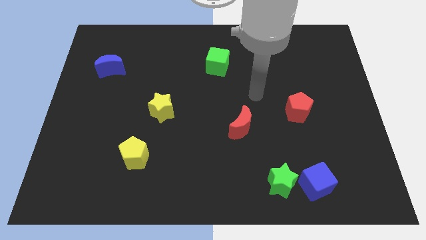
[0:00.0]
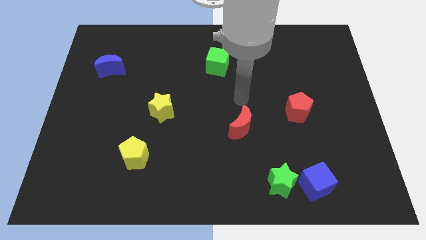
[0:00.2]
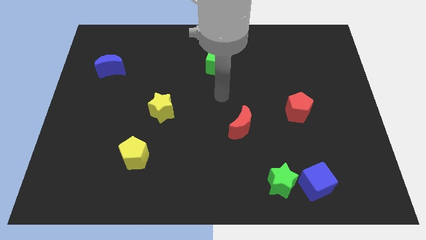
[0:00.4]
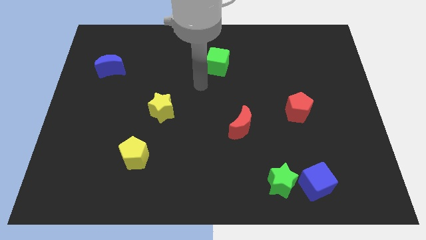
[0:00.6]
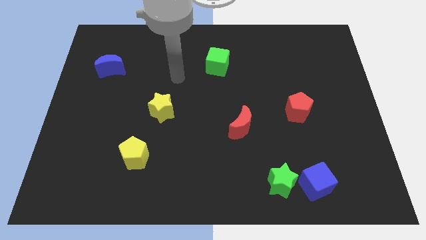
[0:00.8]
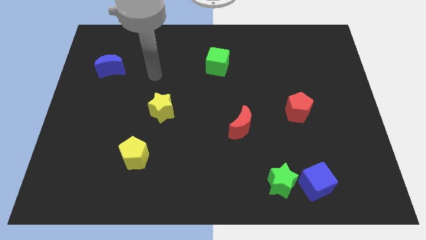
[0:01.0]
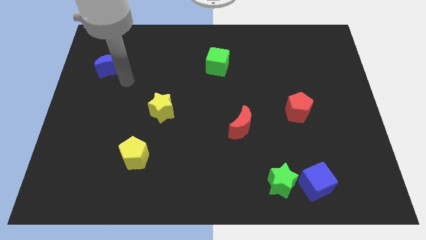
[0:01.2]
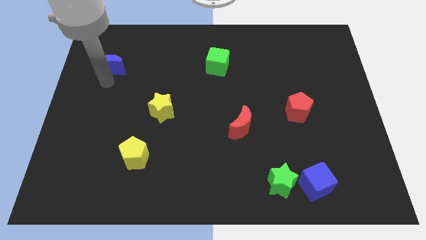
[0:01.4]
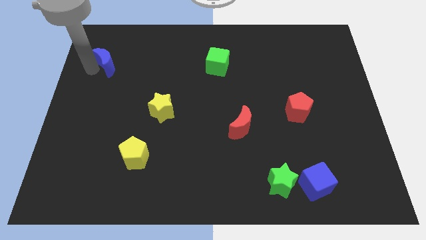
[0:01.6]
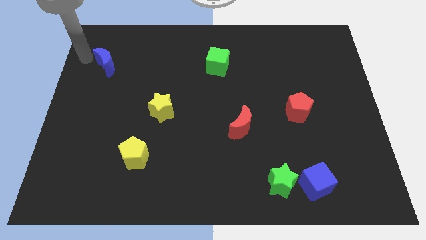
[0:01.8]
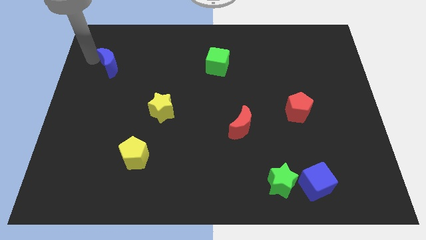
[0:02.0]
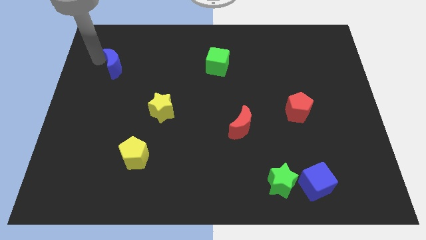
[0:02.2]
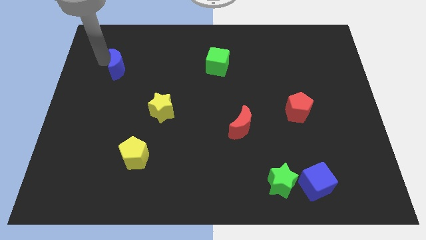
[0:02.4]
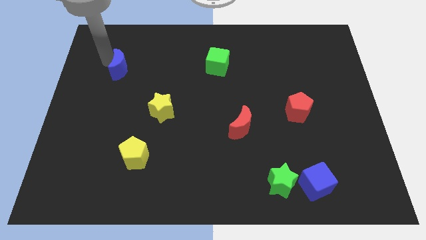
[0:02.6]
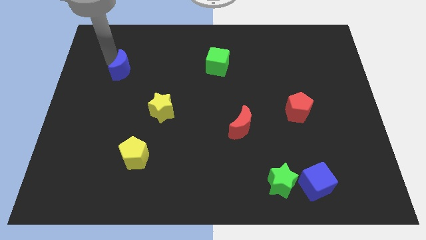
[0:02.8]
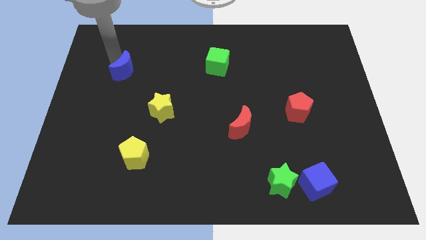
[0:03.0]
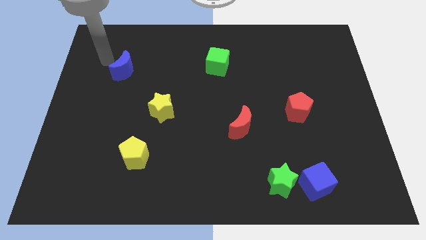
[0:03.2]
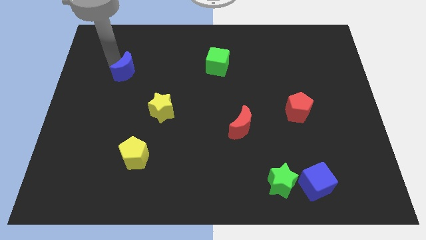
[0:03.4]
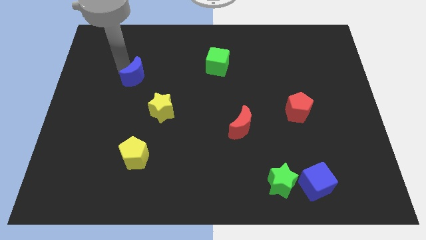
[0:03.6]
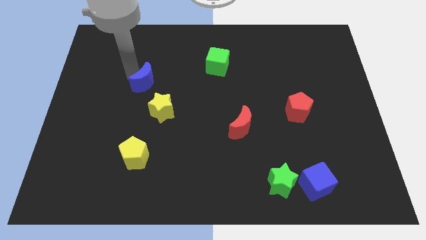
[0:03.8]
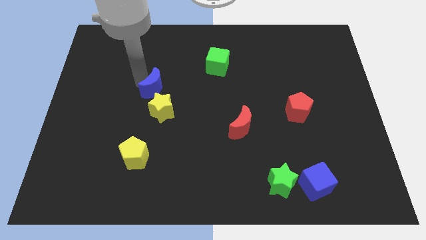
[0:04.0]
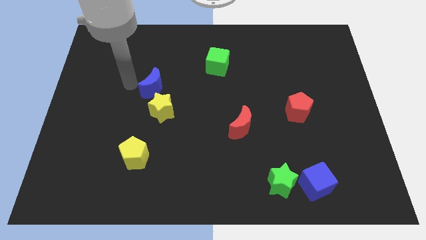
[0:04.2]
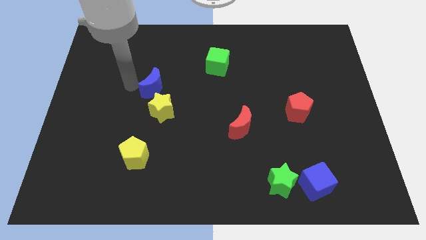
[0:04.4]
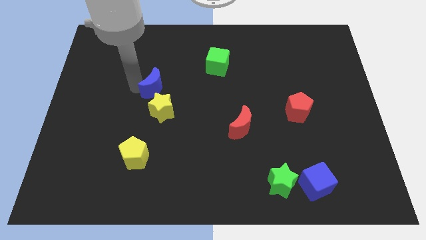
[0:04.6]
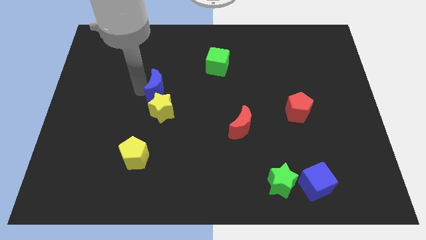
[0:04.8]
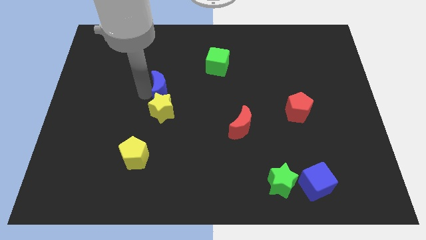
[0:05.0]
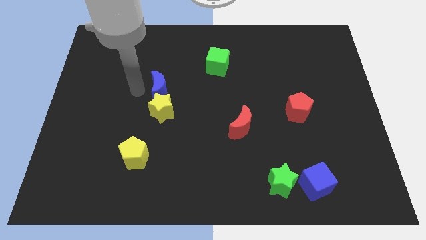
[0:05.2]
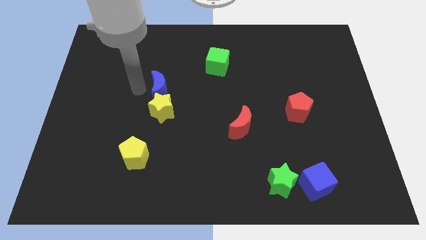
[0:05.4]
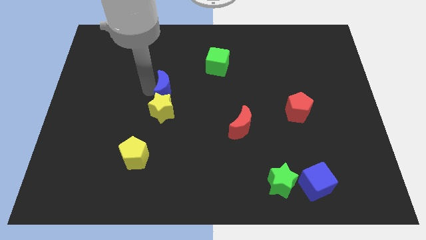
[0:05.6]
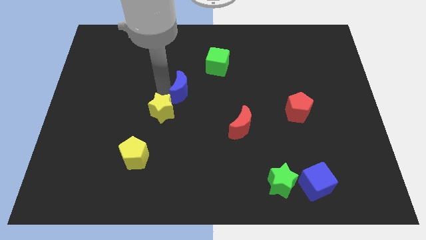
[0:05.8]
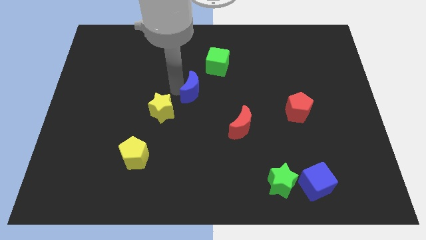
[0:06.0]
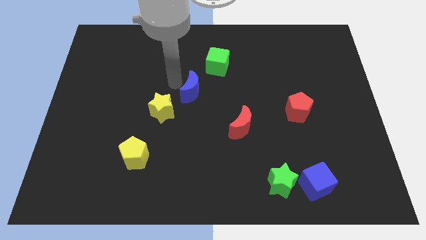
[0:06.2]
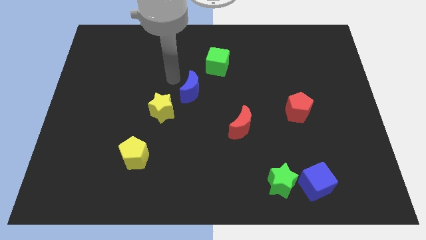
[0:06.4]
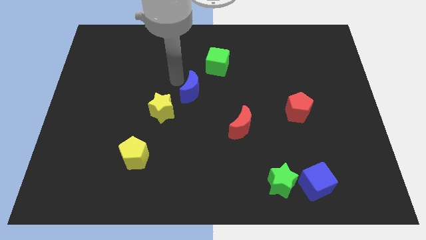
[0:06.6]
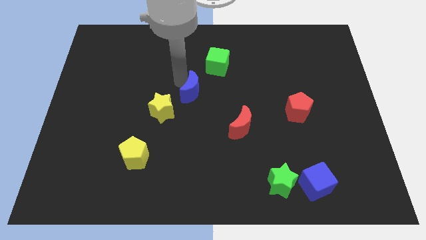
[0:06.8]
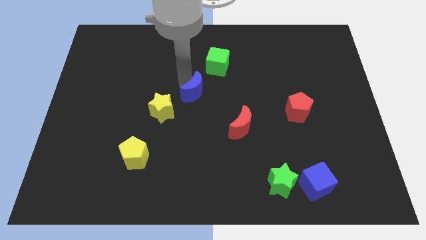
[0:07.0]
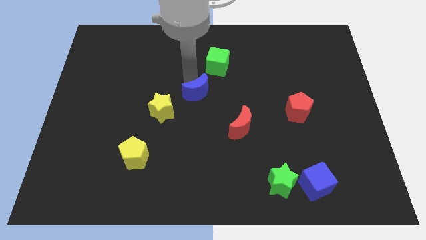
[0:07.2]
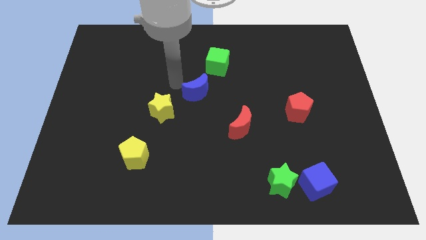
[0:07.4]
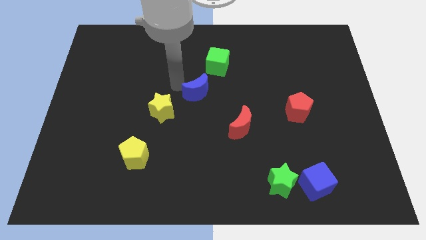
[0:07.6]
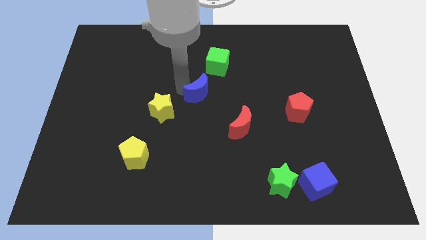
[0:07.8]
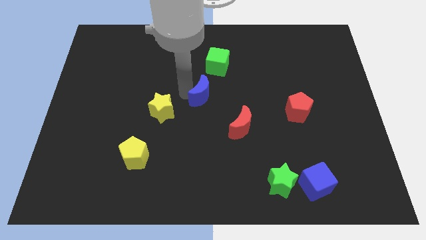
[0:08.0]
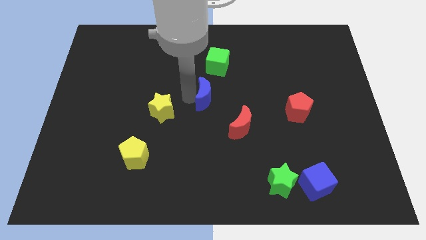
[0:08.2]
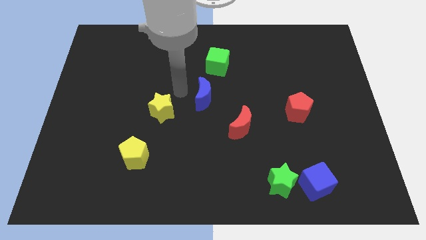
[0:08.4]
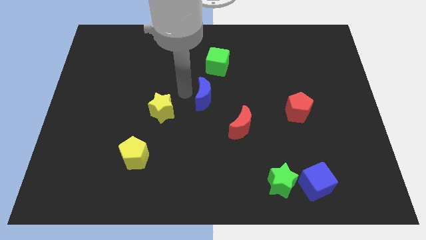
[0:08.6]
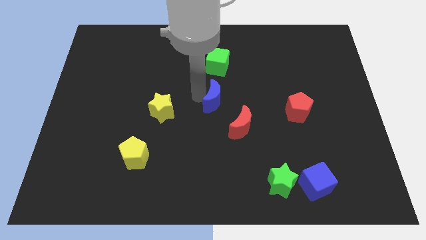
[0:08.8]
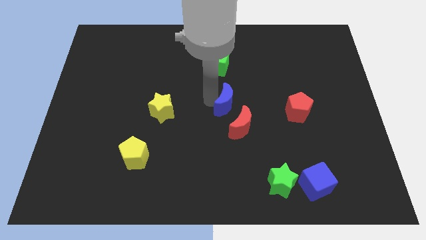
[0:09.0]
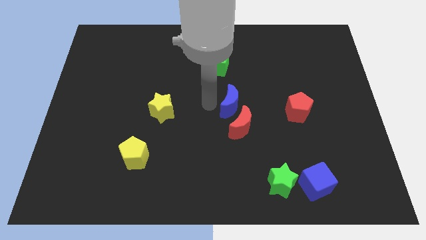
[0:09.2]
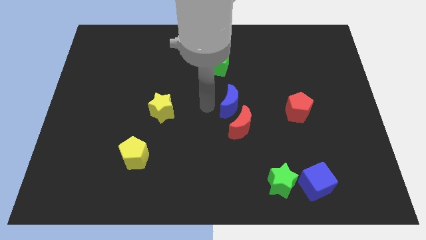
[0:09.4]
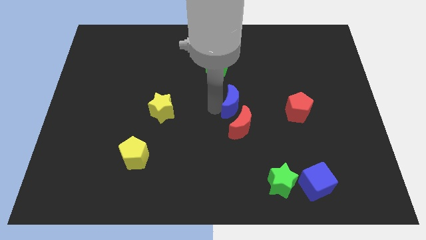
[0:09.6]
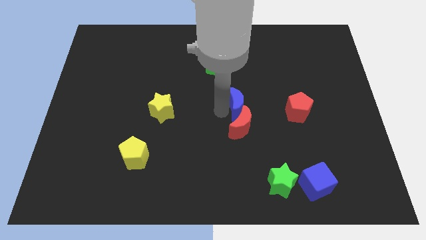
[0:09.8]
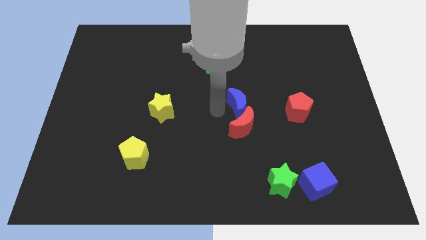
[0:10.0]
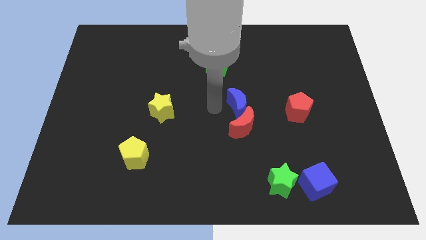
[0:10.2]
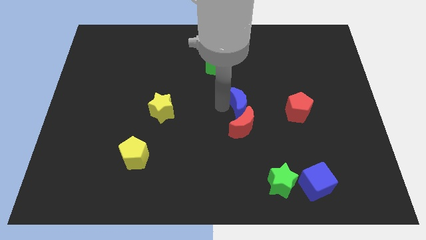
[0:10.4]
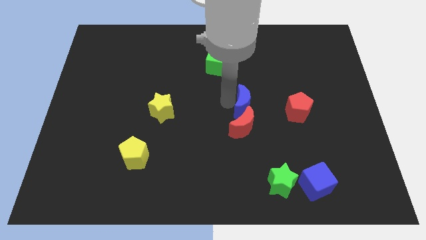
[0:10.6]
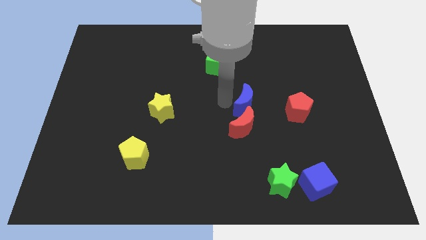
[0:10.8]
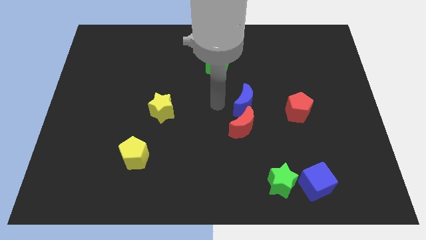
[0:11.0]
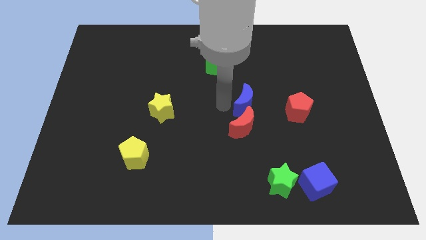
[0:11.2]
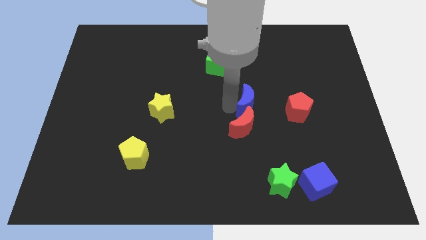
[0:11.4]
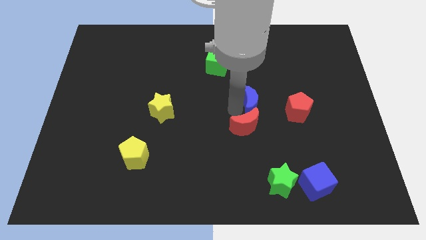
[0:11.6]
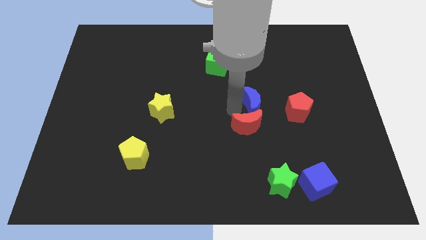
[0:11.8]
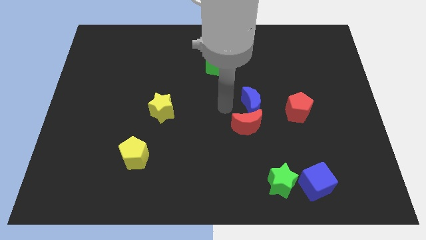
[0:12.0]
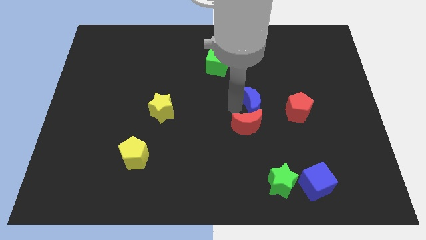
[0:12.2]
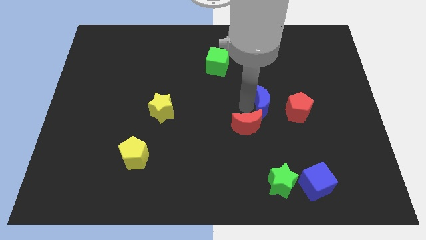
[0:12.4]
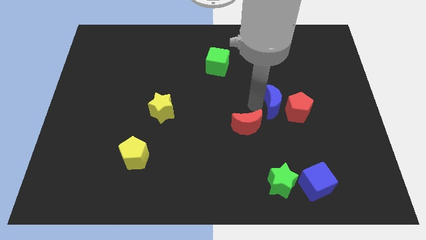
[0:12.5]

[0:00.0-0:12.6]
push the blue moon towards the red pentagon
